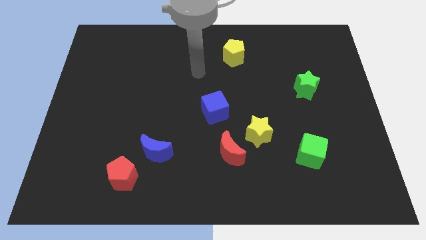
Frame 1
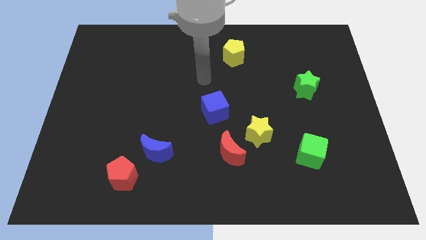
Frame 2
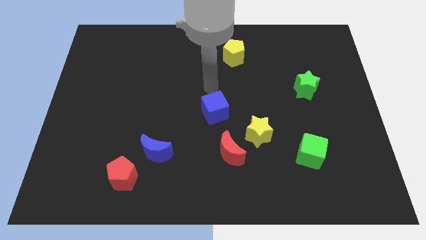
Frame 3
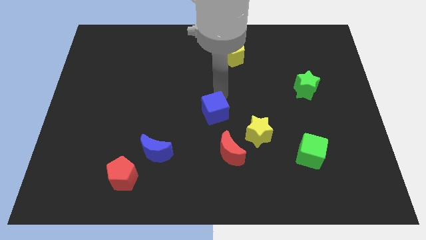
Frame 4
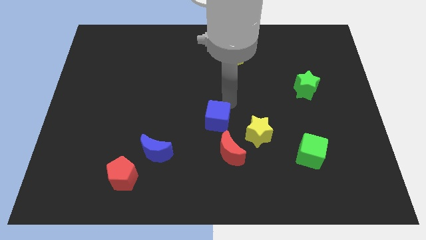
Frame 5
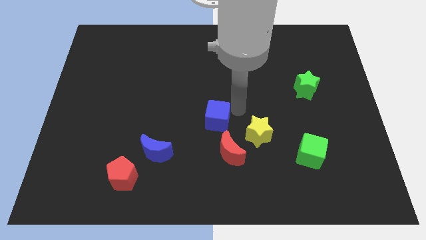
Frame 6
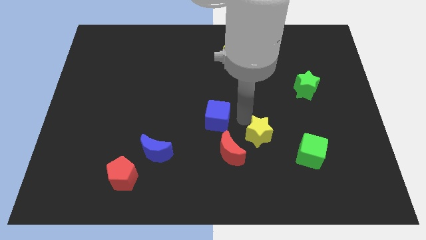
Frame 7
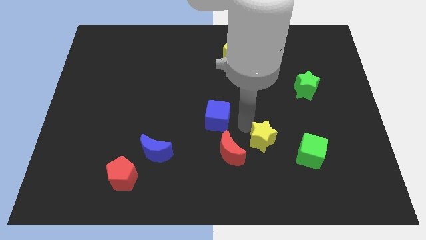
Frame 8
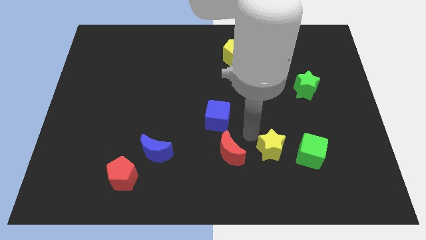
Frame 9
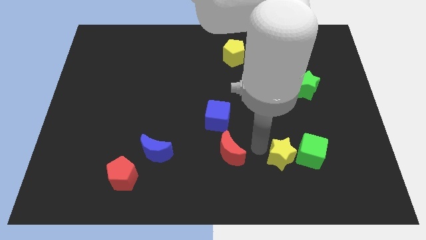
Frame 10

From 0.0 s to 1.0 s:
move the red moon away from the yellow star

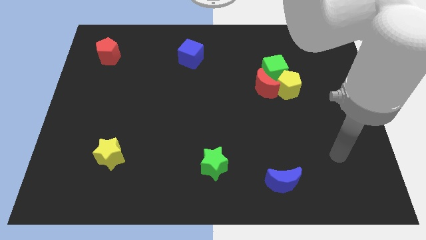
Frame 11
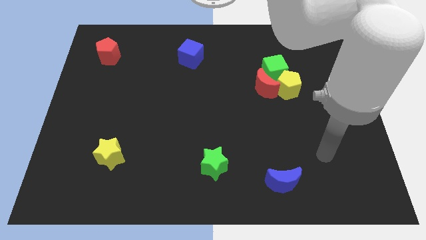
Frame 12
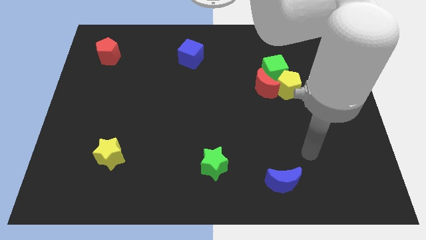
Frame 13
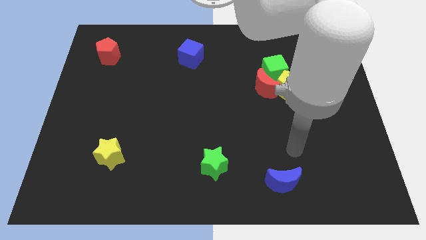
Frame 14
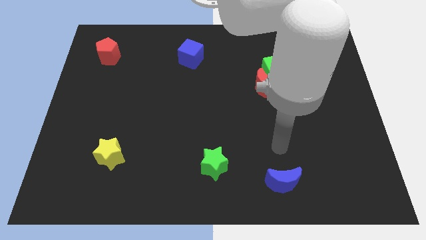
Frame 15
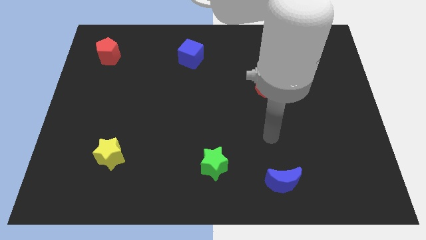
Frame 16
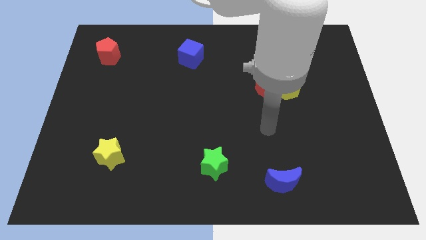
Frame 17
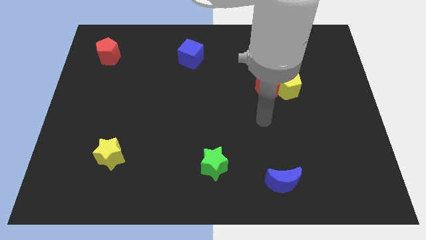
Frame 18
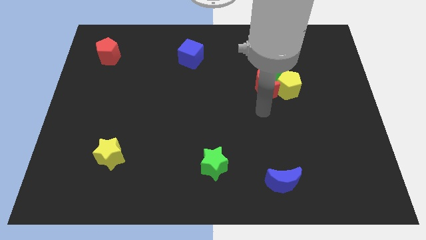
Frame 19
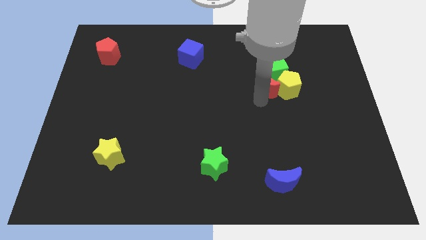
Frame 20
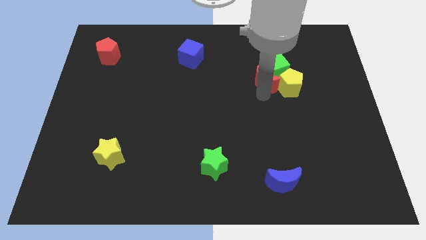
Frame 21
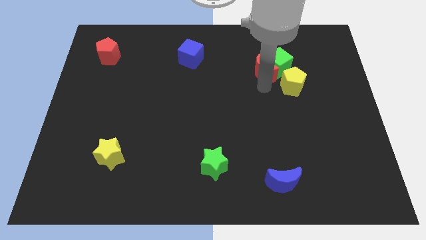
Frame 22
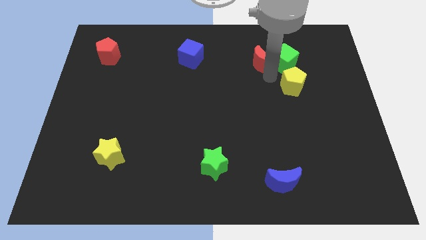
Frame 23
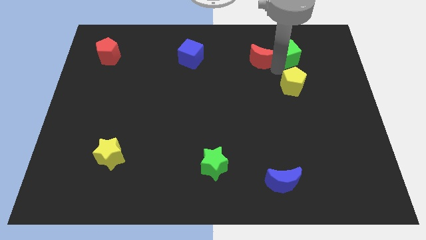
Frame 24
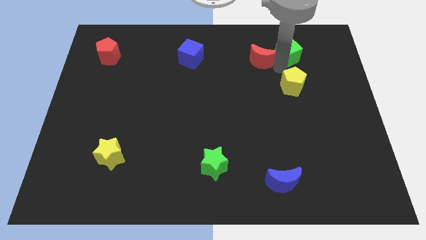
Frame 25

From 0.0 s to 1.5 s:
pull the yellow pentagon apart from the red moon and green cube

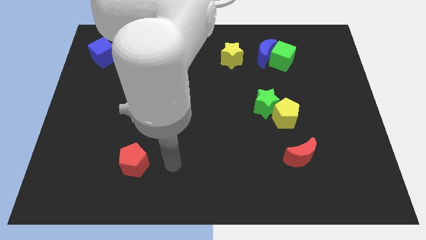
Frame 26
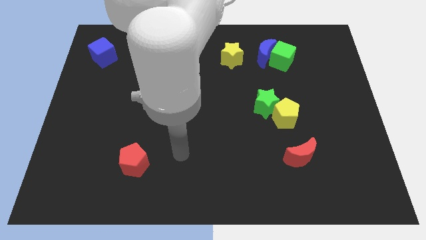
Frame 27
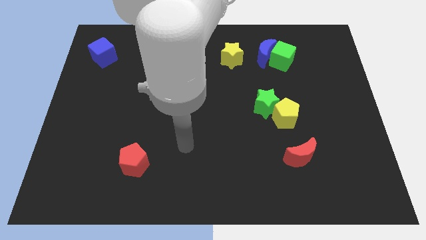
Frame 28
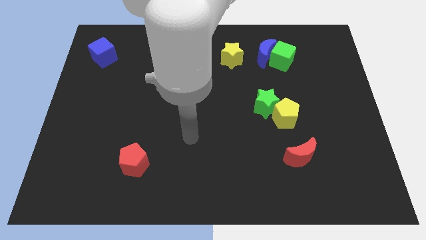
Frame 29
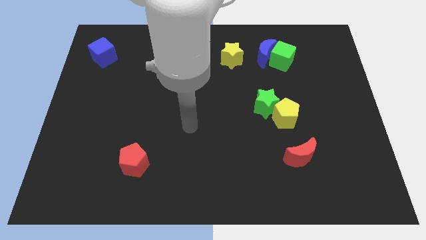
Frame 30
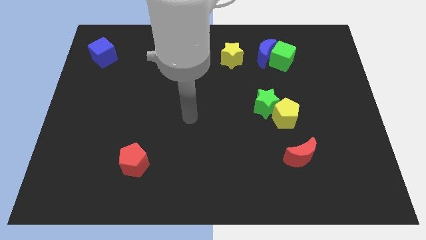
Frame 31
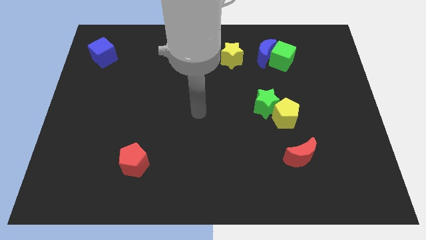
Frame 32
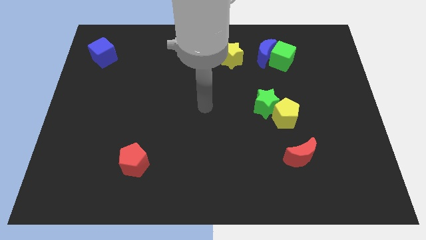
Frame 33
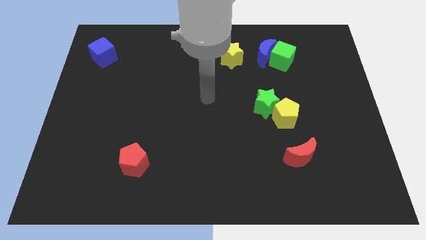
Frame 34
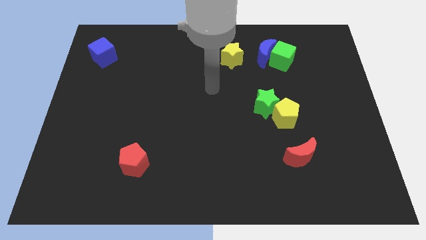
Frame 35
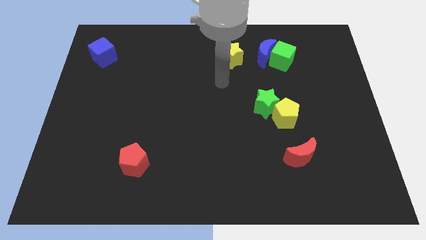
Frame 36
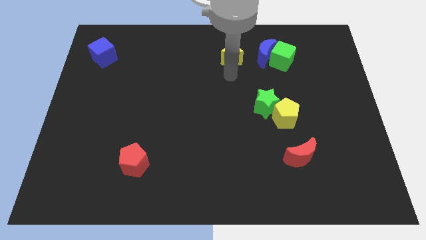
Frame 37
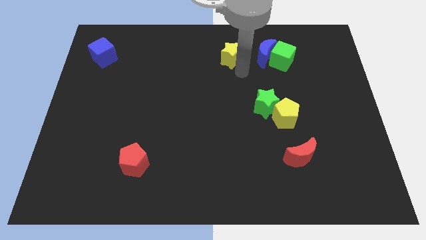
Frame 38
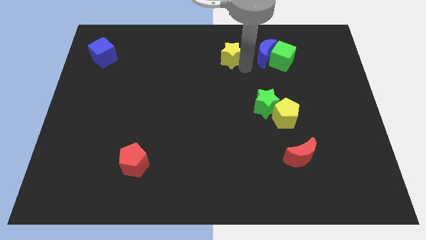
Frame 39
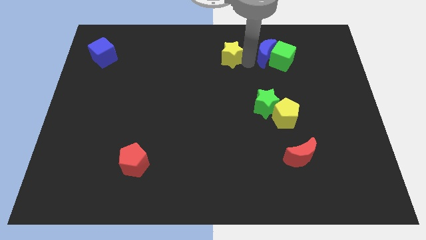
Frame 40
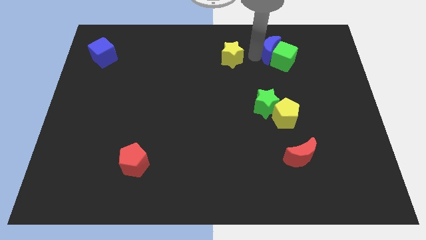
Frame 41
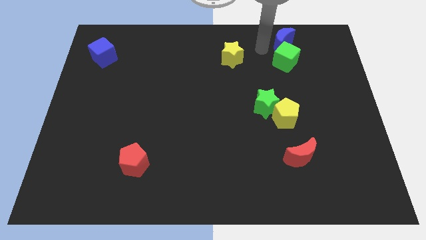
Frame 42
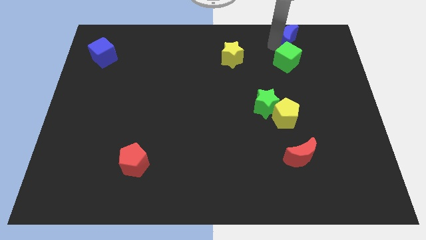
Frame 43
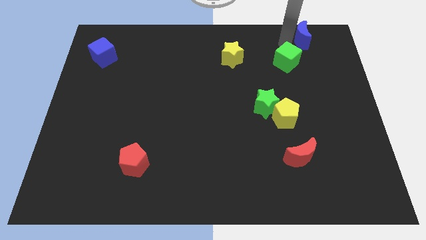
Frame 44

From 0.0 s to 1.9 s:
pull the green cube apart from the blue moon

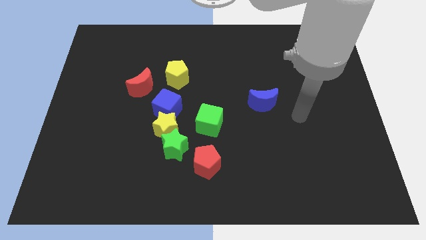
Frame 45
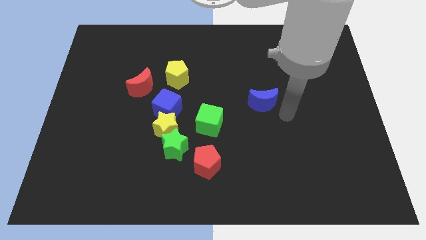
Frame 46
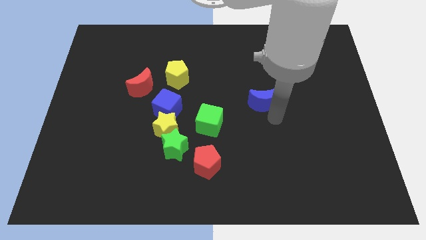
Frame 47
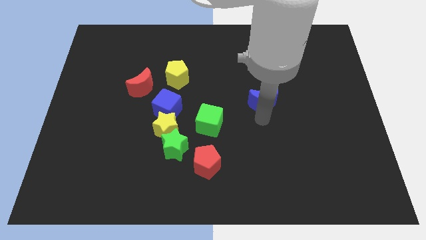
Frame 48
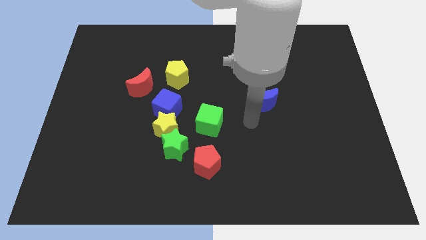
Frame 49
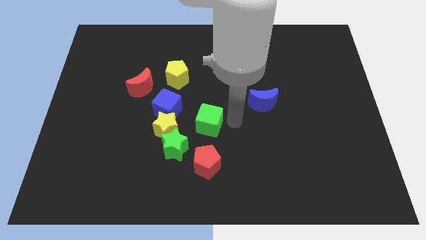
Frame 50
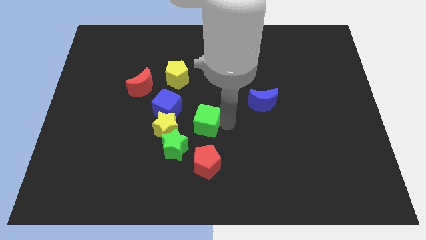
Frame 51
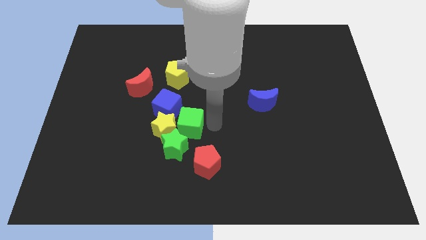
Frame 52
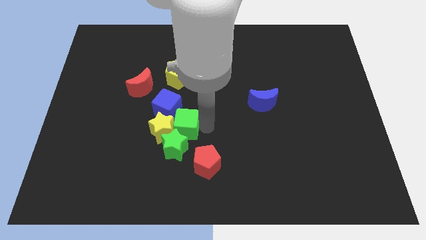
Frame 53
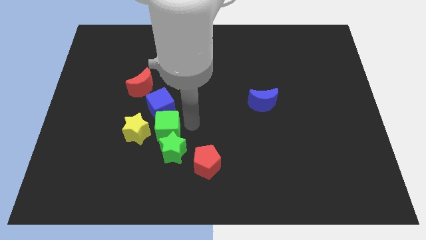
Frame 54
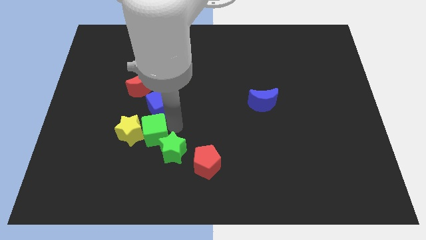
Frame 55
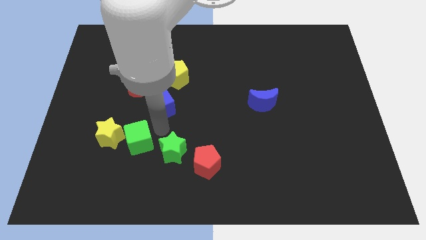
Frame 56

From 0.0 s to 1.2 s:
move the yellow star away from the green star, blue cube, and green cube

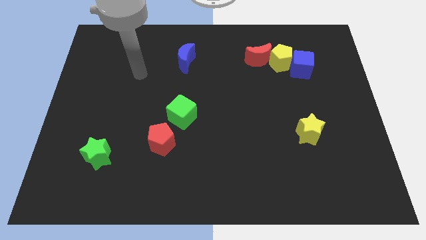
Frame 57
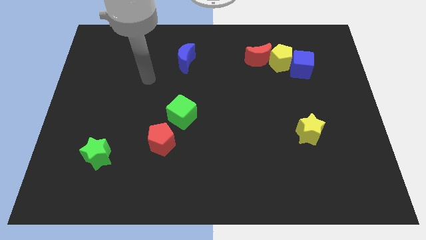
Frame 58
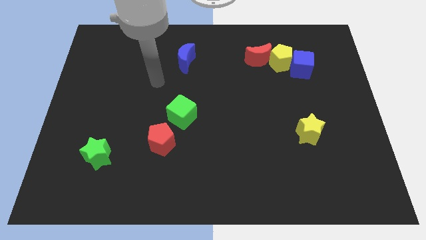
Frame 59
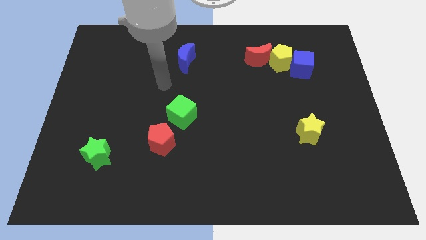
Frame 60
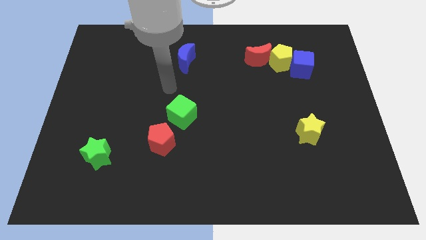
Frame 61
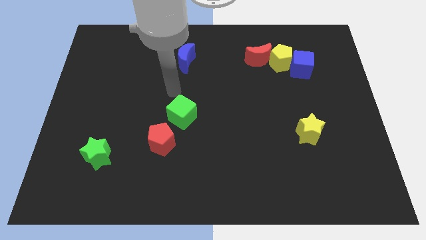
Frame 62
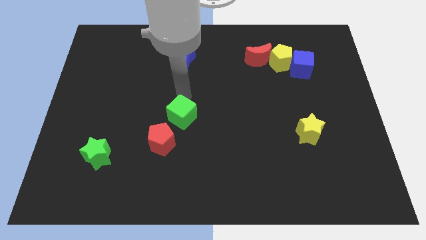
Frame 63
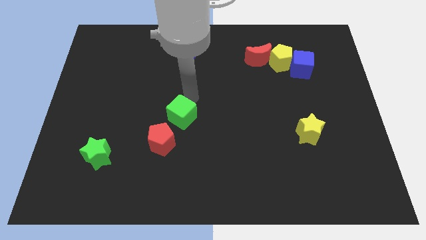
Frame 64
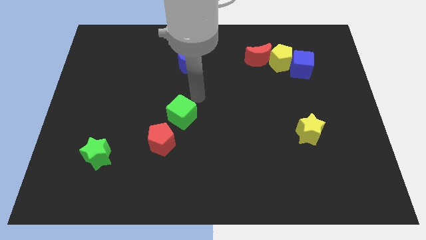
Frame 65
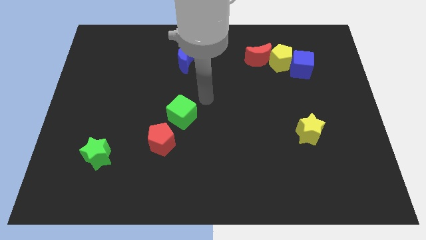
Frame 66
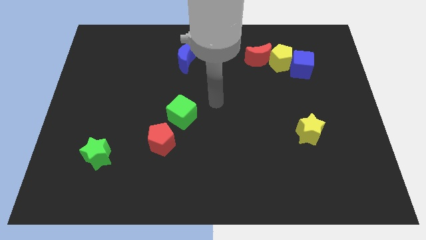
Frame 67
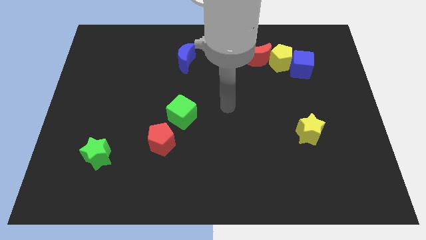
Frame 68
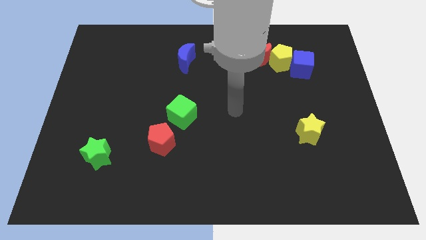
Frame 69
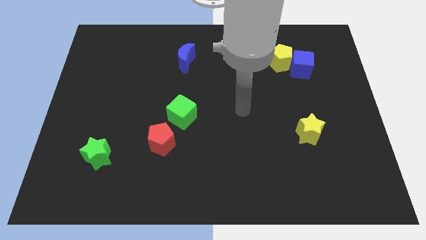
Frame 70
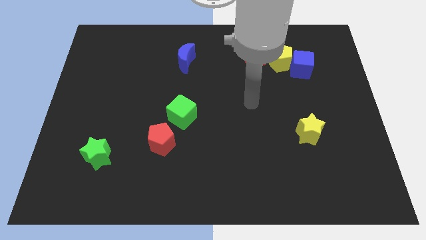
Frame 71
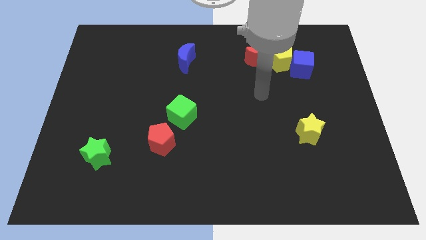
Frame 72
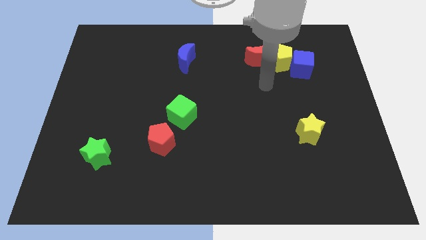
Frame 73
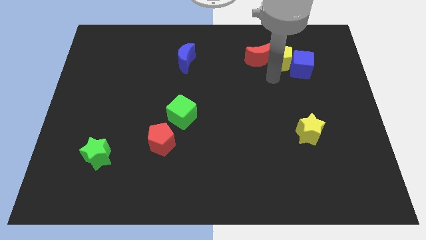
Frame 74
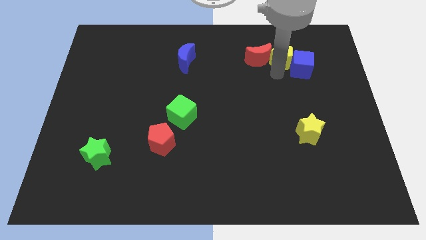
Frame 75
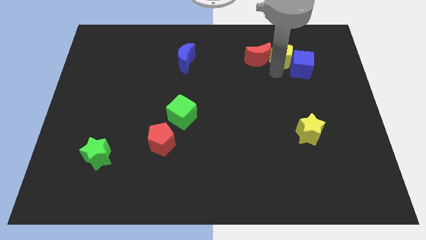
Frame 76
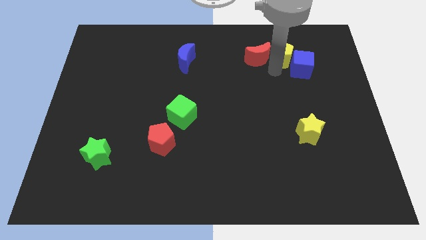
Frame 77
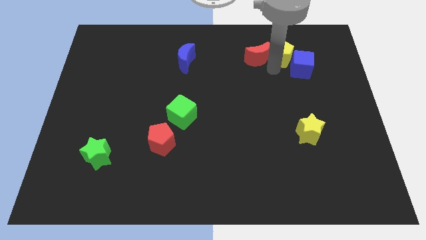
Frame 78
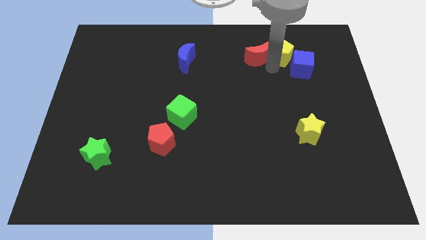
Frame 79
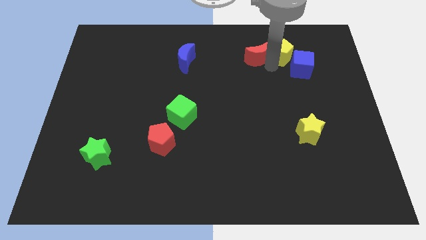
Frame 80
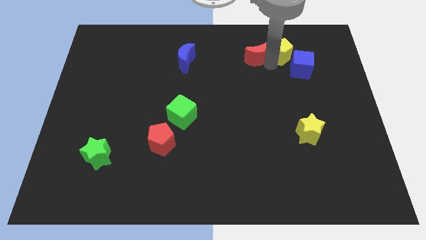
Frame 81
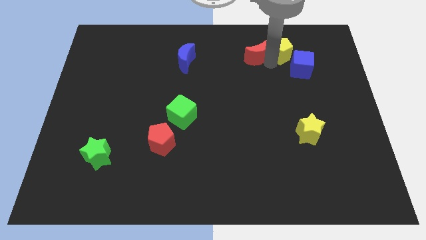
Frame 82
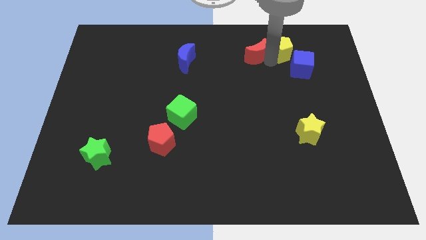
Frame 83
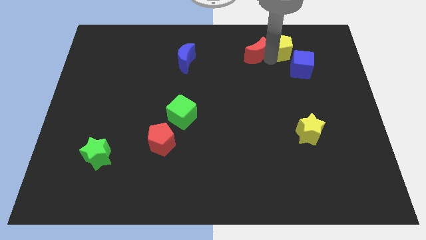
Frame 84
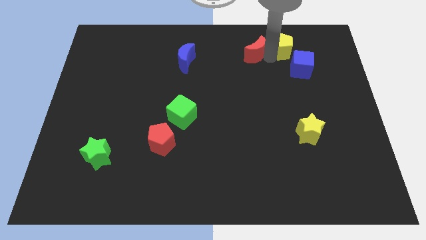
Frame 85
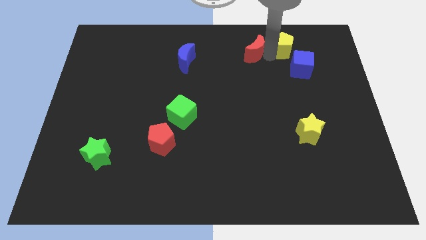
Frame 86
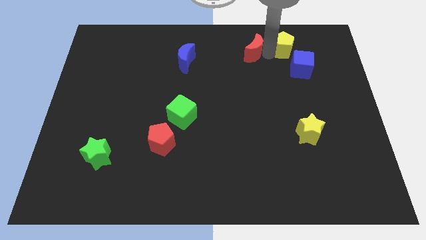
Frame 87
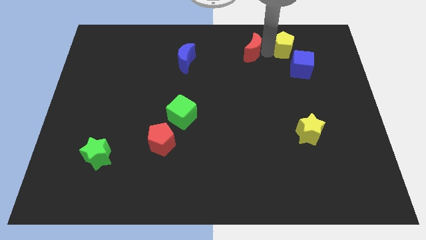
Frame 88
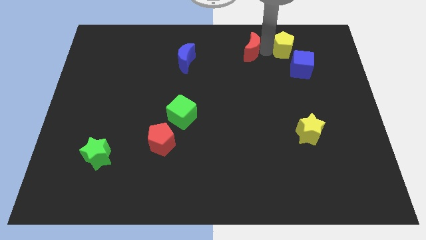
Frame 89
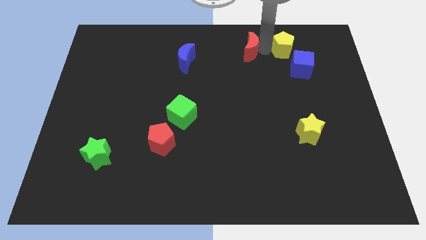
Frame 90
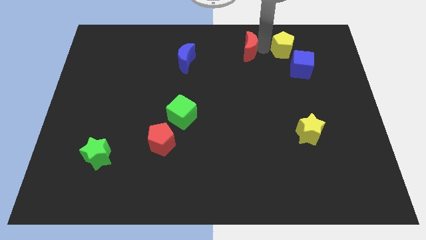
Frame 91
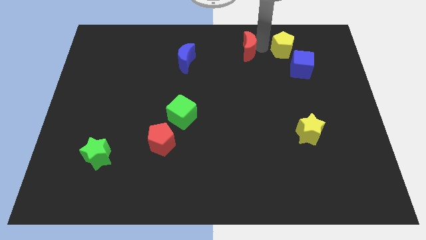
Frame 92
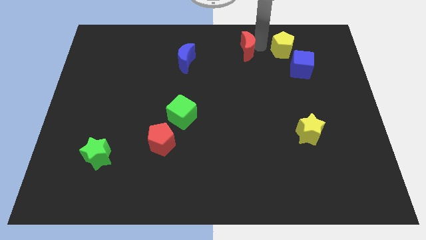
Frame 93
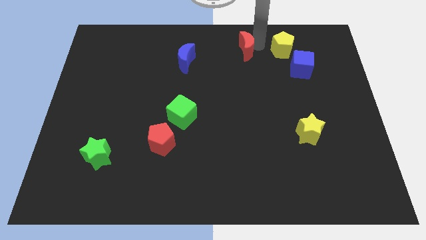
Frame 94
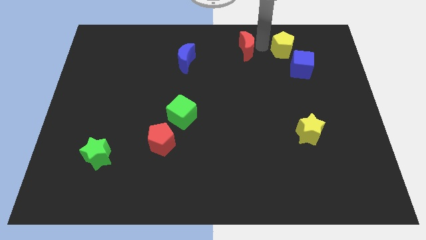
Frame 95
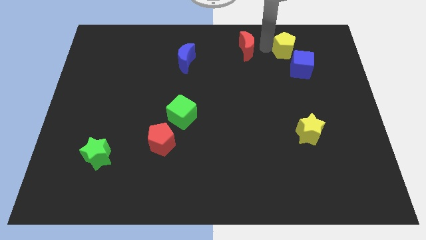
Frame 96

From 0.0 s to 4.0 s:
move the red moon away from the yellow pentagon
